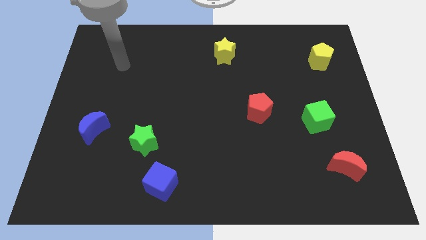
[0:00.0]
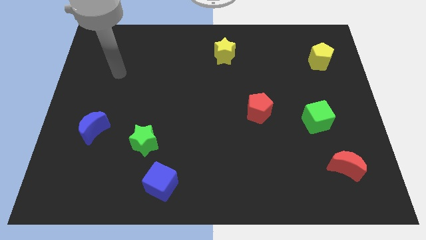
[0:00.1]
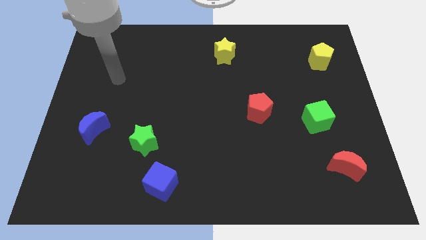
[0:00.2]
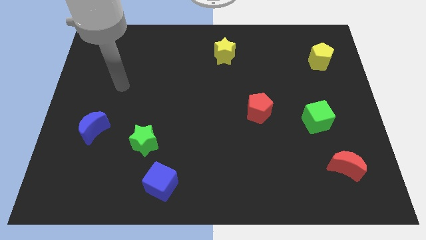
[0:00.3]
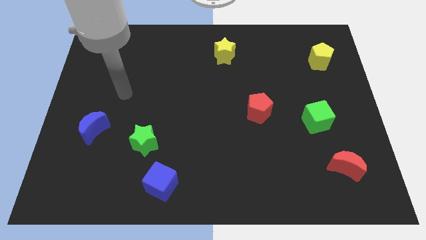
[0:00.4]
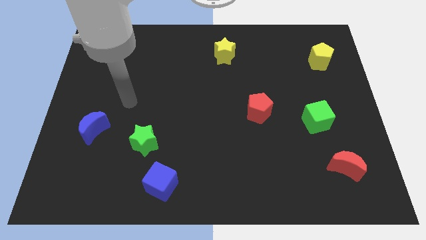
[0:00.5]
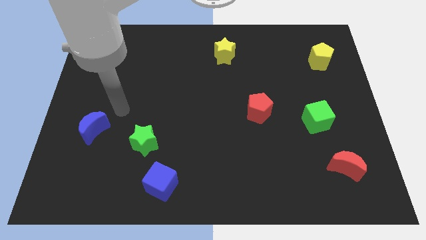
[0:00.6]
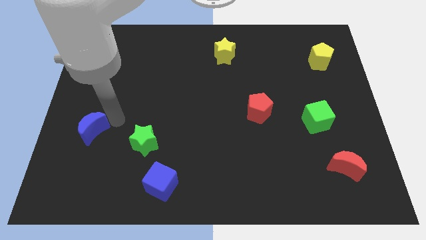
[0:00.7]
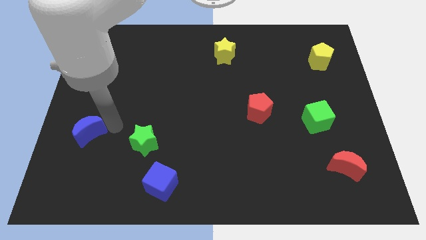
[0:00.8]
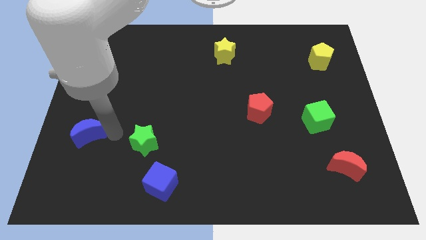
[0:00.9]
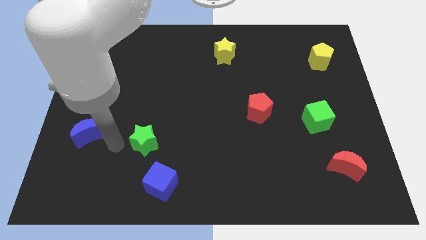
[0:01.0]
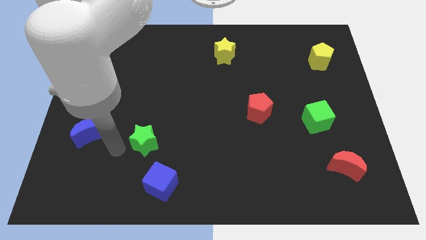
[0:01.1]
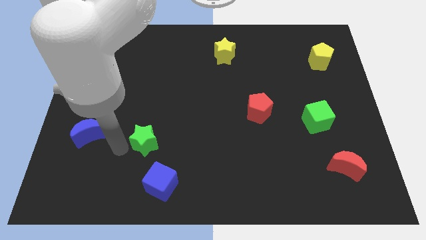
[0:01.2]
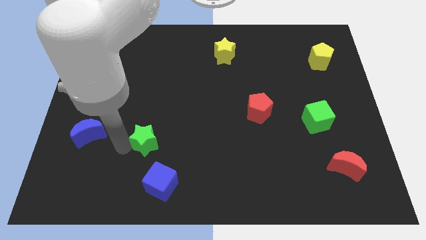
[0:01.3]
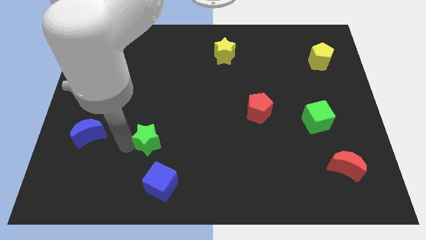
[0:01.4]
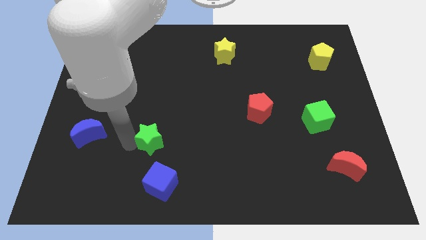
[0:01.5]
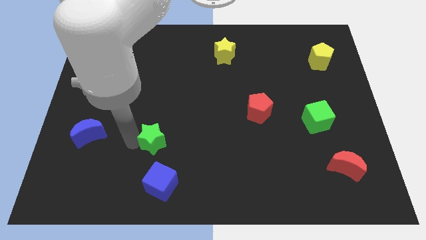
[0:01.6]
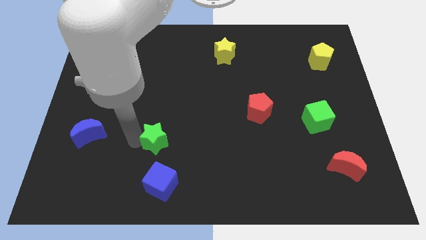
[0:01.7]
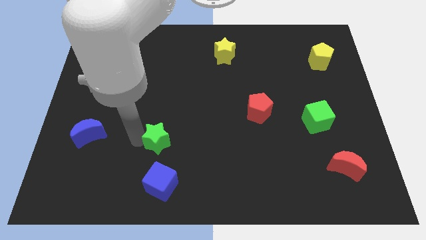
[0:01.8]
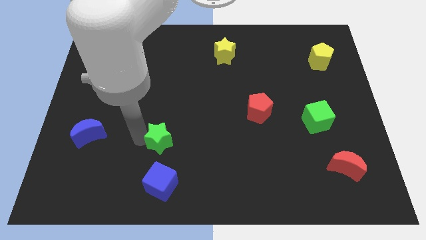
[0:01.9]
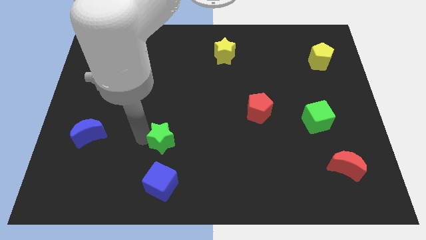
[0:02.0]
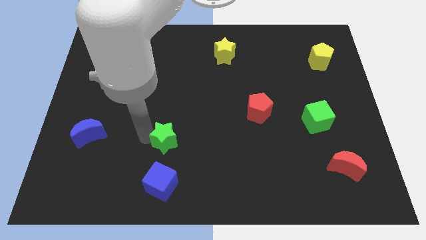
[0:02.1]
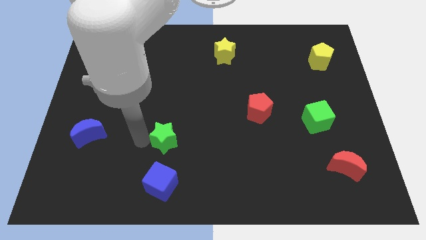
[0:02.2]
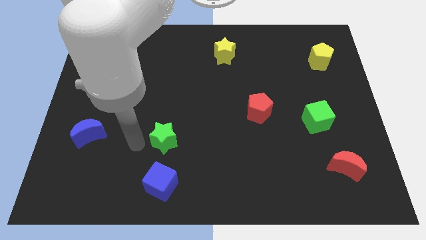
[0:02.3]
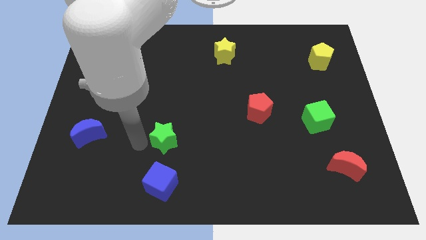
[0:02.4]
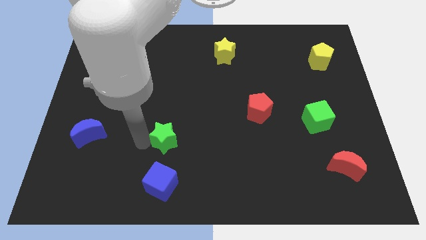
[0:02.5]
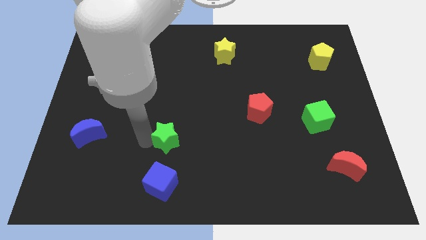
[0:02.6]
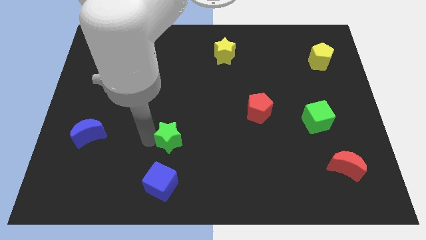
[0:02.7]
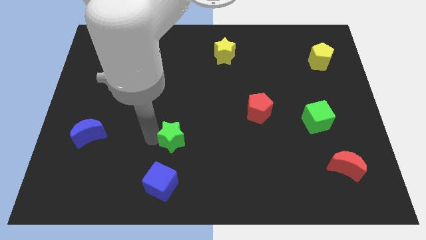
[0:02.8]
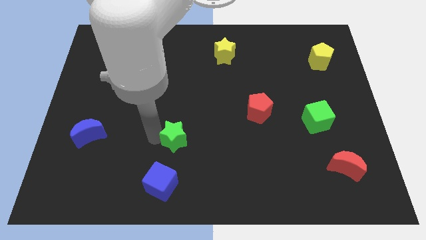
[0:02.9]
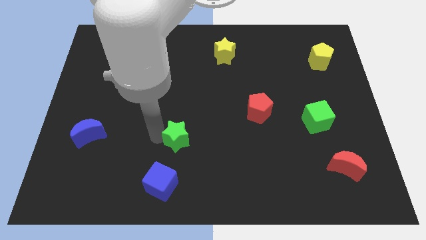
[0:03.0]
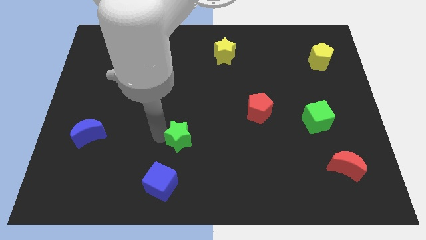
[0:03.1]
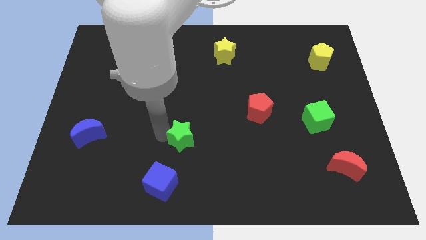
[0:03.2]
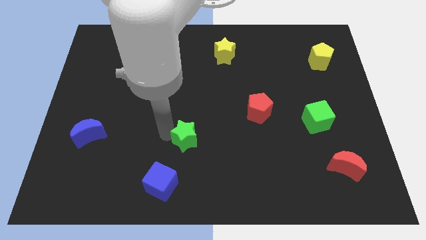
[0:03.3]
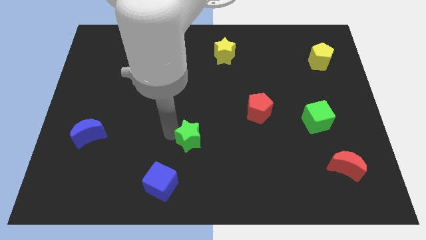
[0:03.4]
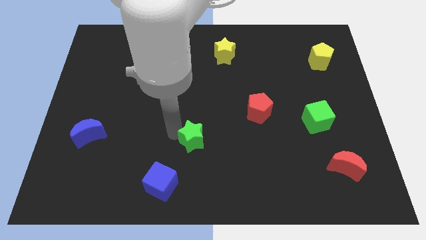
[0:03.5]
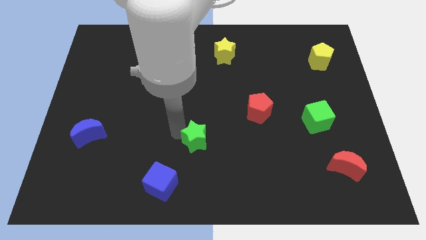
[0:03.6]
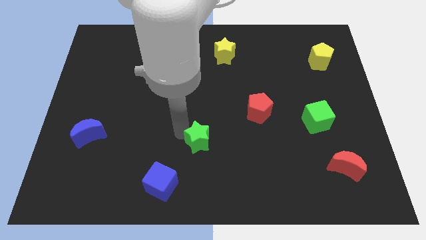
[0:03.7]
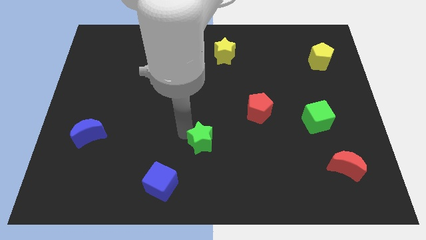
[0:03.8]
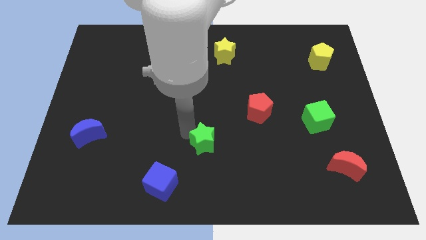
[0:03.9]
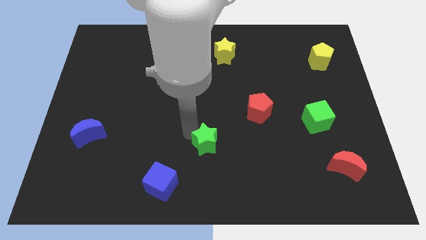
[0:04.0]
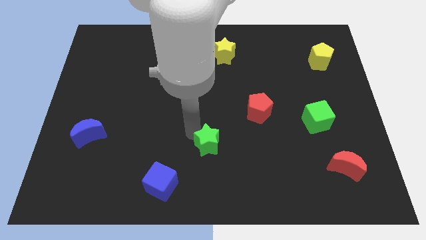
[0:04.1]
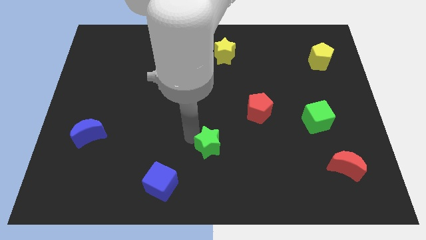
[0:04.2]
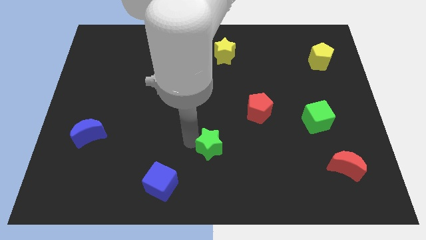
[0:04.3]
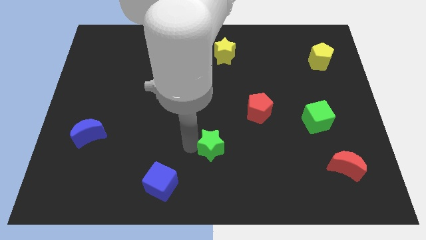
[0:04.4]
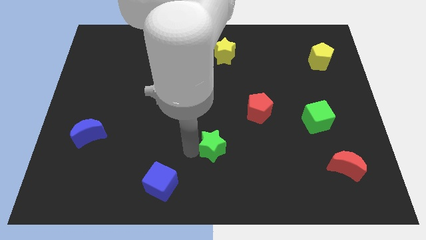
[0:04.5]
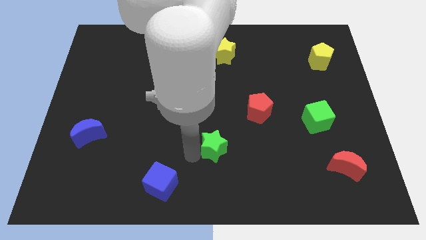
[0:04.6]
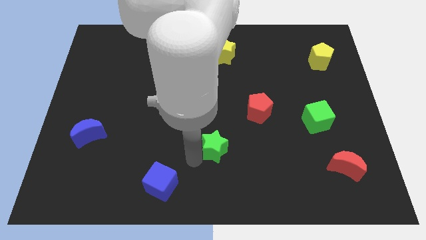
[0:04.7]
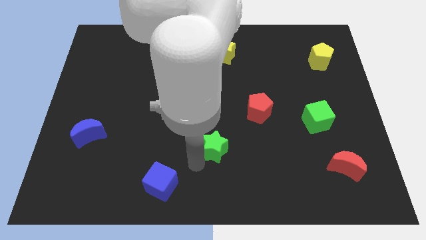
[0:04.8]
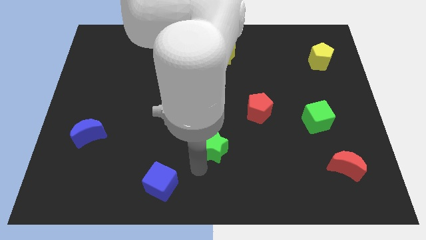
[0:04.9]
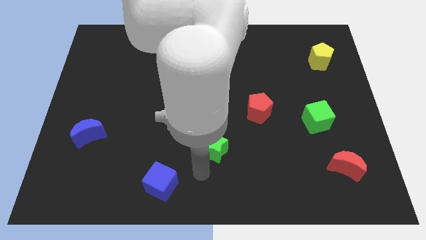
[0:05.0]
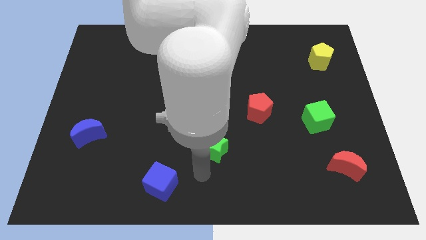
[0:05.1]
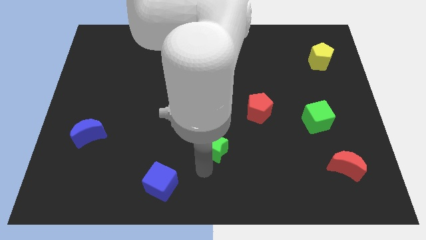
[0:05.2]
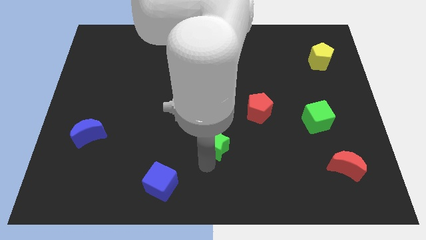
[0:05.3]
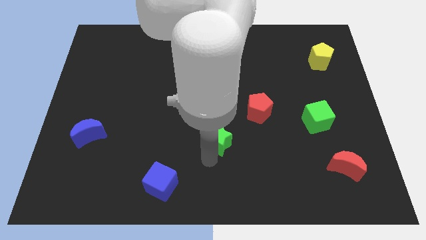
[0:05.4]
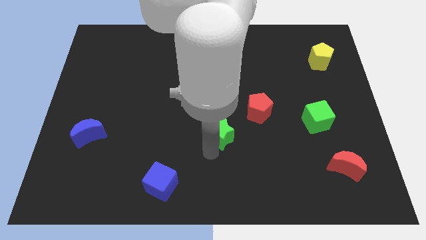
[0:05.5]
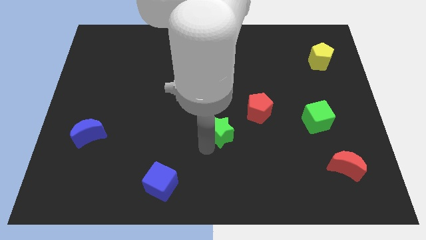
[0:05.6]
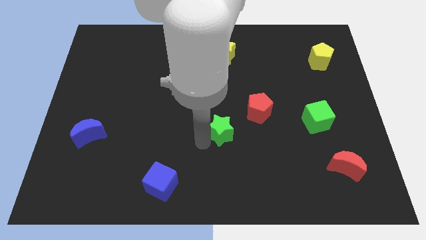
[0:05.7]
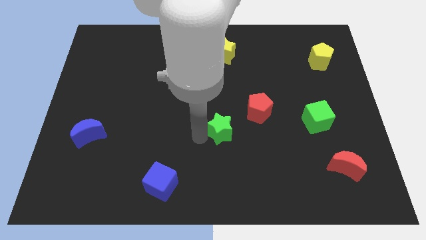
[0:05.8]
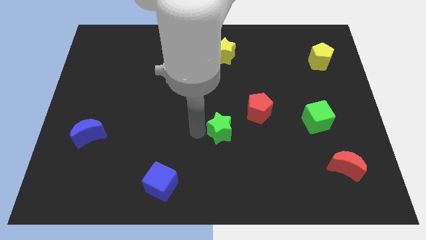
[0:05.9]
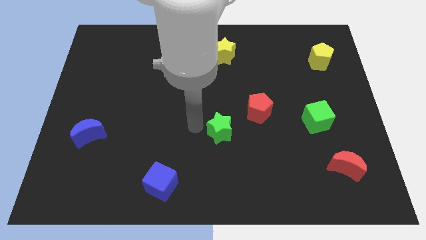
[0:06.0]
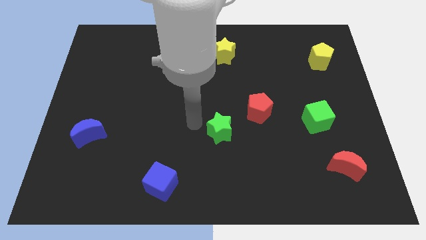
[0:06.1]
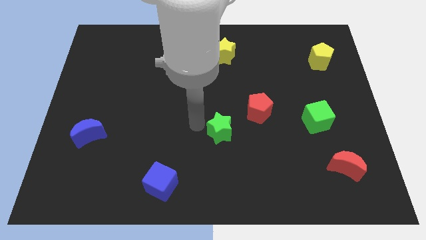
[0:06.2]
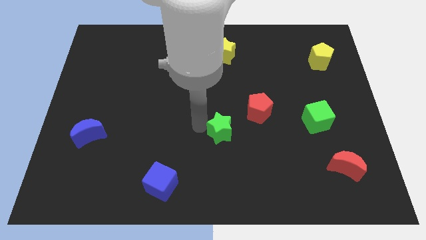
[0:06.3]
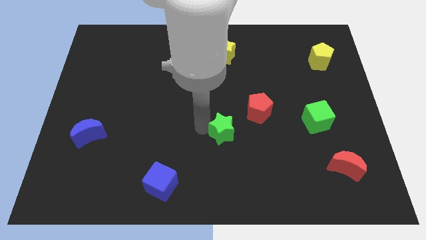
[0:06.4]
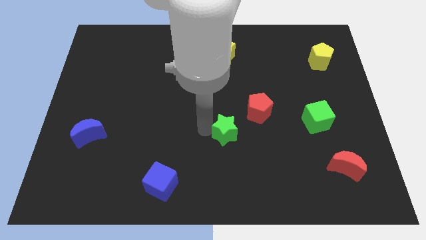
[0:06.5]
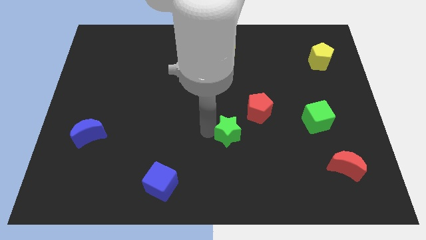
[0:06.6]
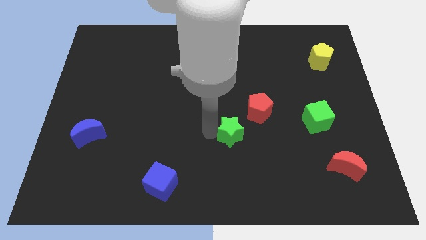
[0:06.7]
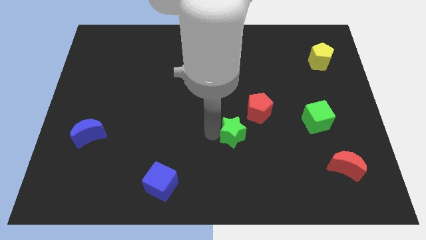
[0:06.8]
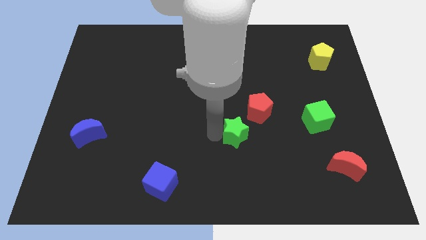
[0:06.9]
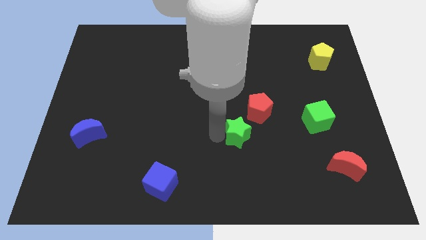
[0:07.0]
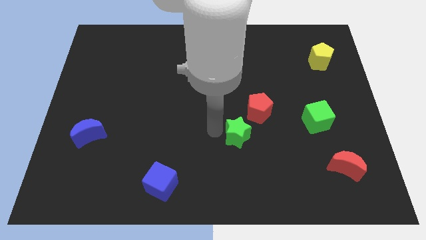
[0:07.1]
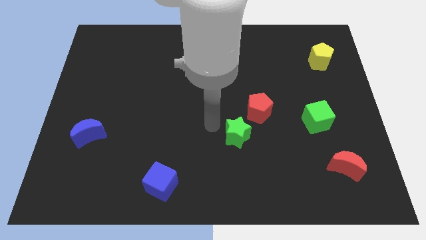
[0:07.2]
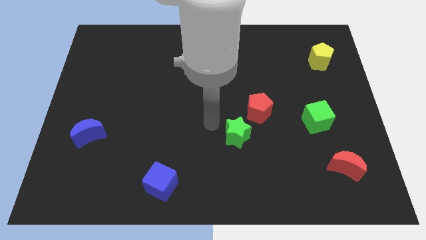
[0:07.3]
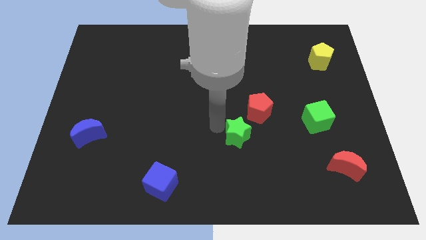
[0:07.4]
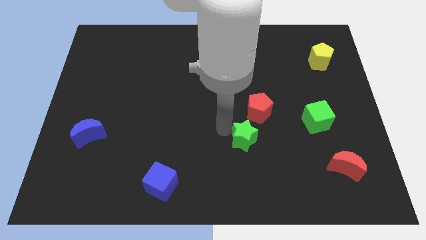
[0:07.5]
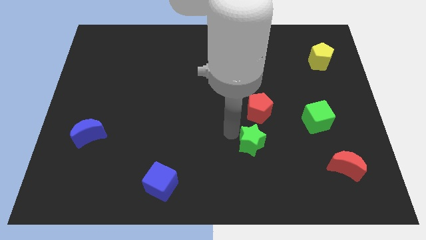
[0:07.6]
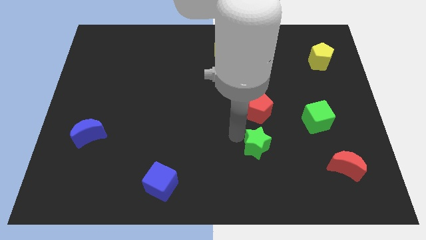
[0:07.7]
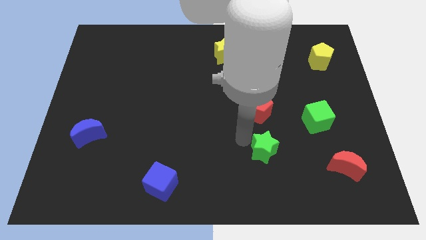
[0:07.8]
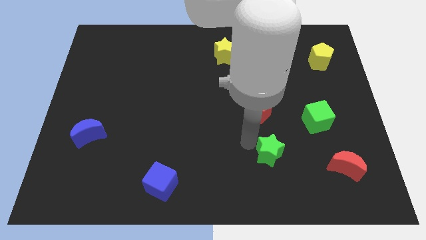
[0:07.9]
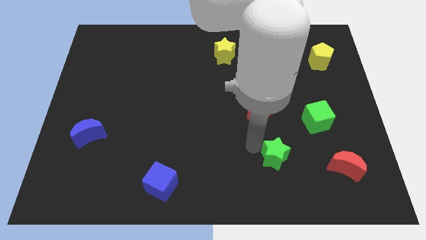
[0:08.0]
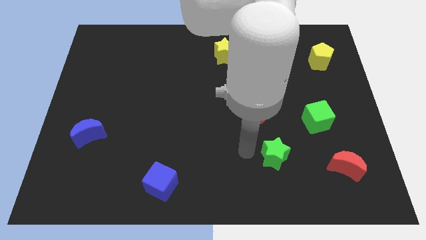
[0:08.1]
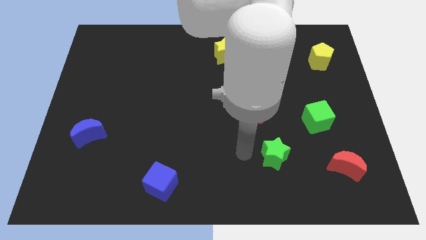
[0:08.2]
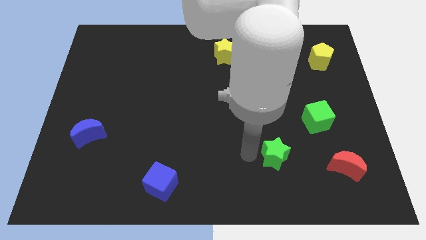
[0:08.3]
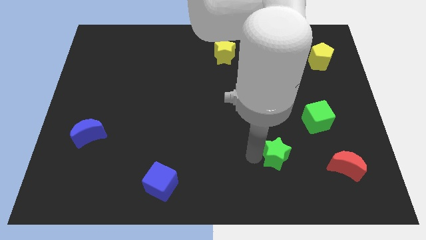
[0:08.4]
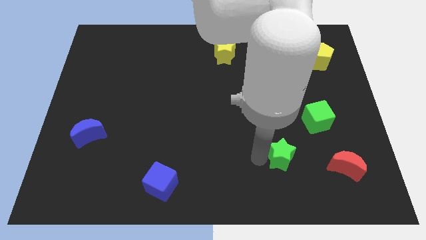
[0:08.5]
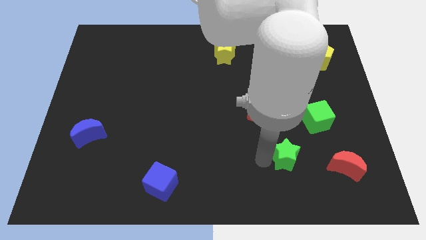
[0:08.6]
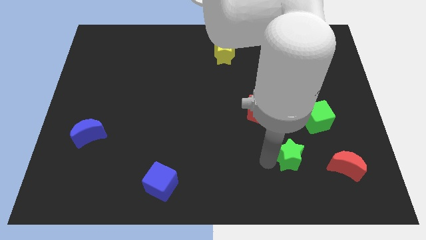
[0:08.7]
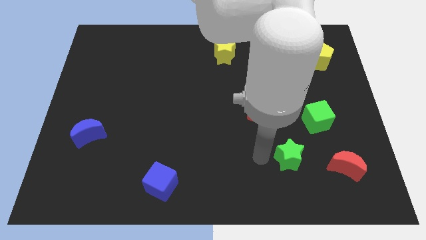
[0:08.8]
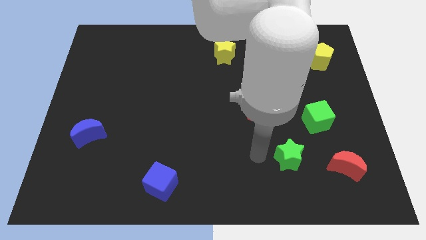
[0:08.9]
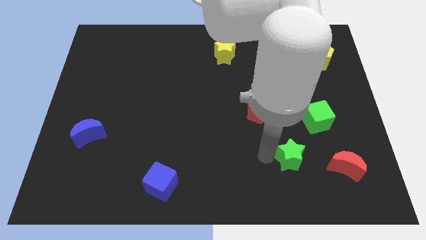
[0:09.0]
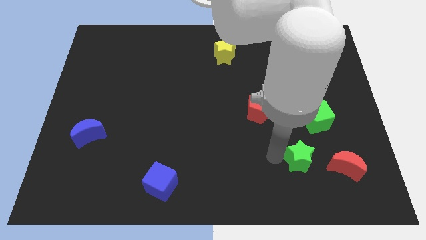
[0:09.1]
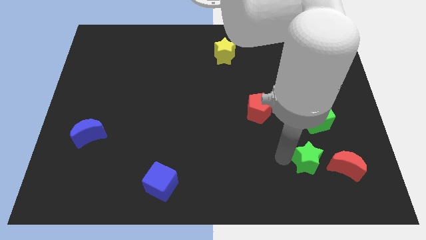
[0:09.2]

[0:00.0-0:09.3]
move the green star to the bottom side of the green cube
